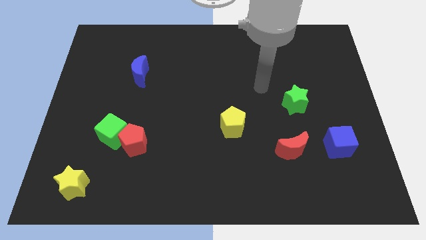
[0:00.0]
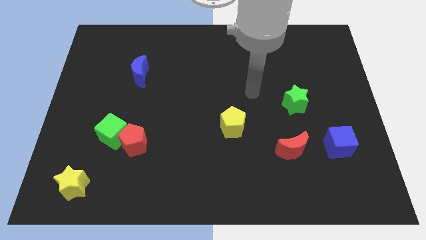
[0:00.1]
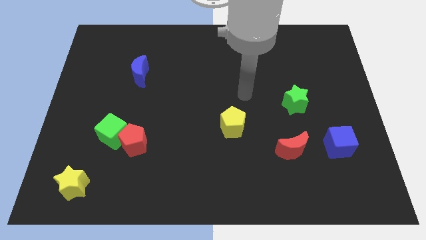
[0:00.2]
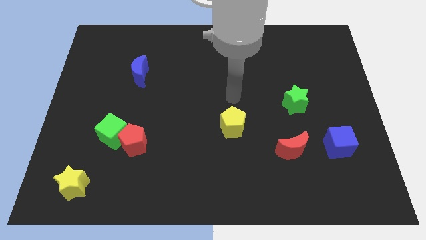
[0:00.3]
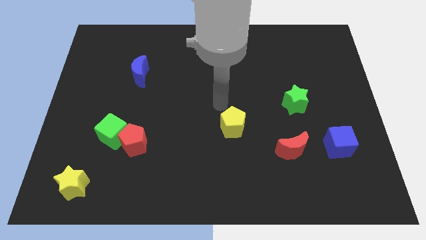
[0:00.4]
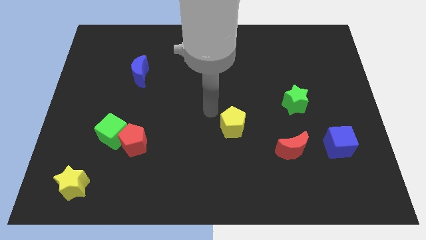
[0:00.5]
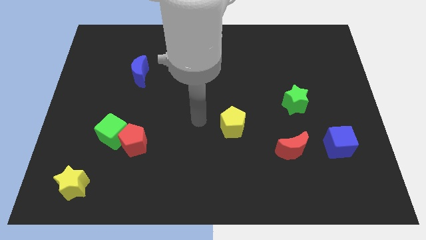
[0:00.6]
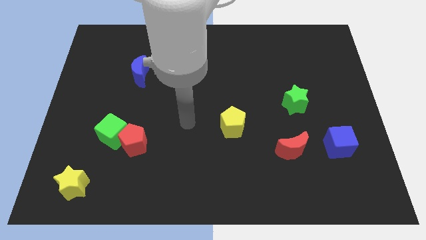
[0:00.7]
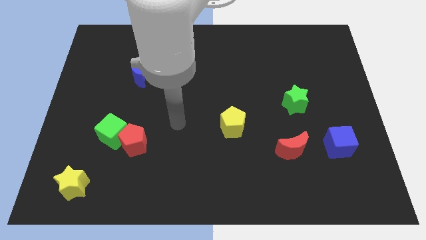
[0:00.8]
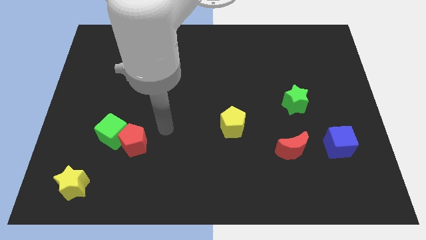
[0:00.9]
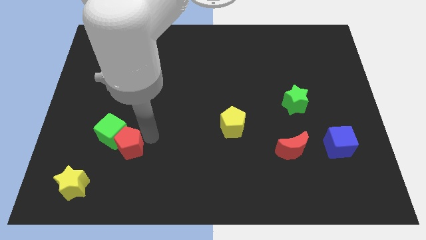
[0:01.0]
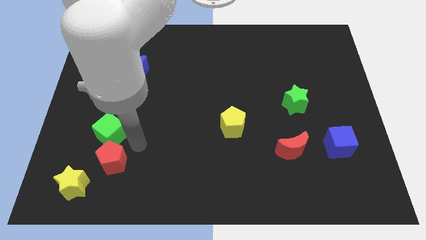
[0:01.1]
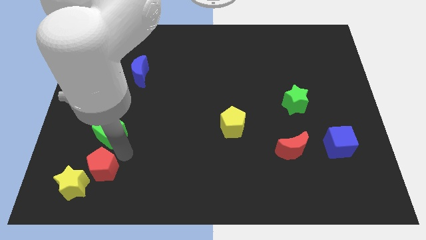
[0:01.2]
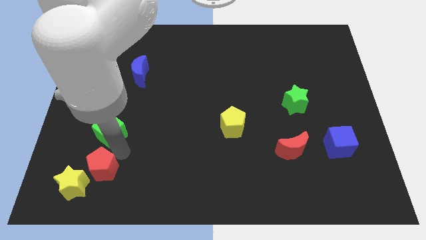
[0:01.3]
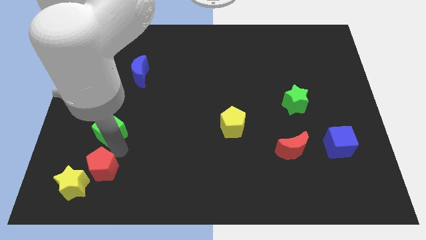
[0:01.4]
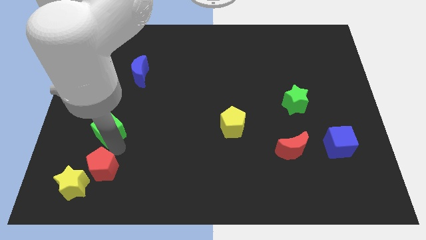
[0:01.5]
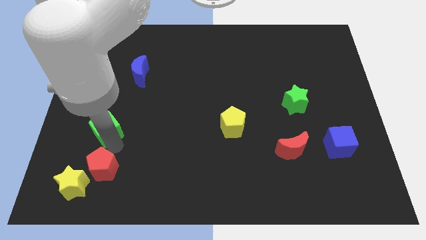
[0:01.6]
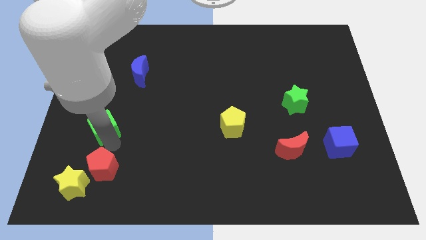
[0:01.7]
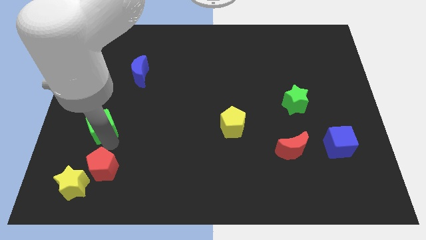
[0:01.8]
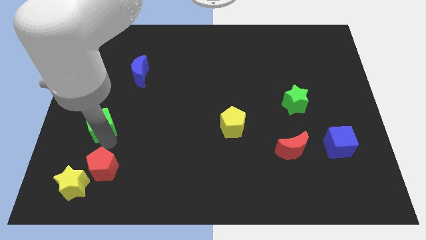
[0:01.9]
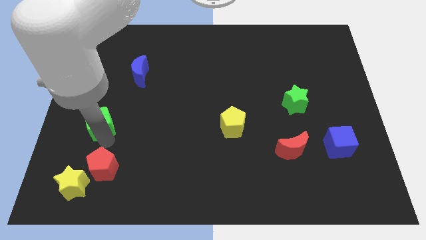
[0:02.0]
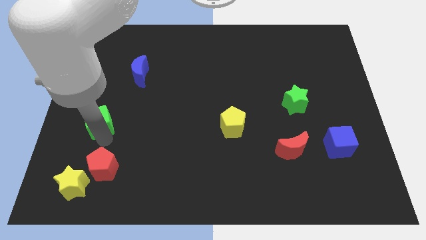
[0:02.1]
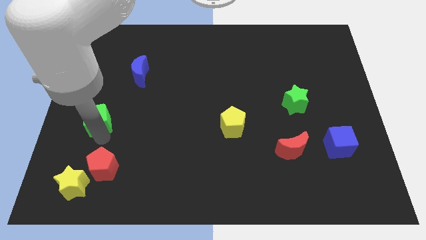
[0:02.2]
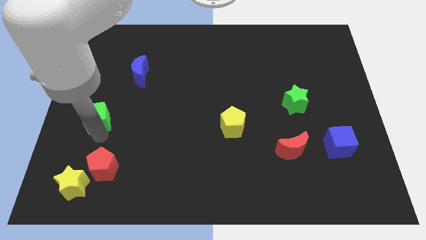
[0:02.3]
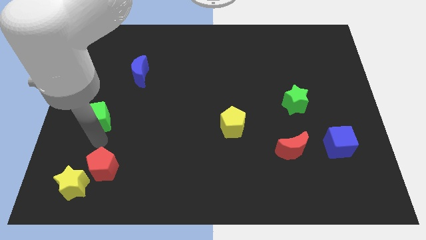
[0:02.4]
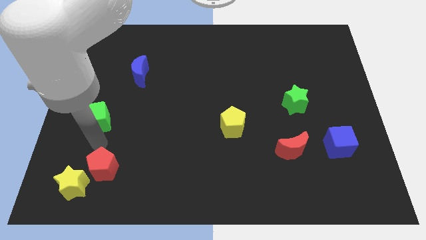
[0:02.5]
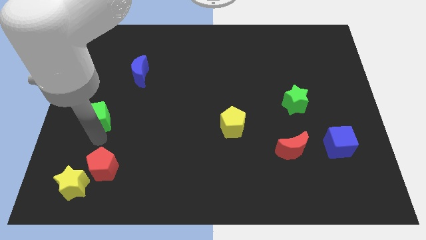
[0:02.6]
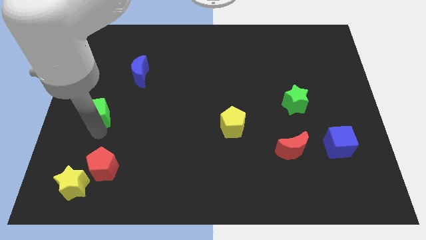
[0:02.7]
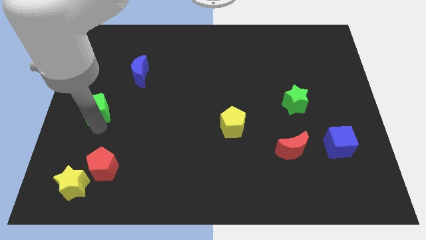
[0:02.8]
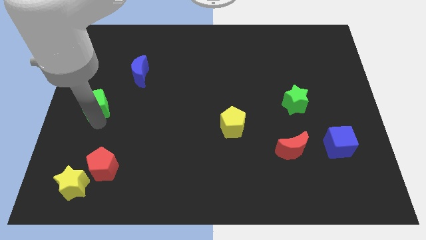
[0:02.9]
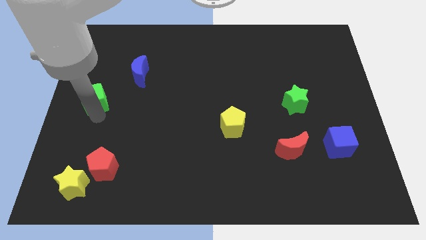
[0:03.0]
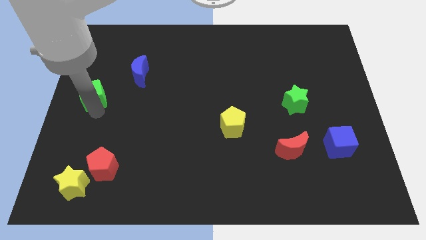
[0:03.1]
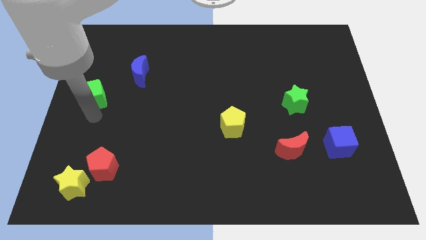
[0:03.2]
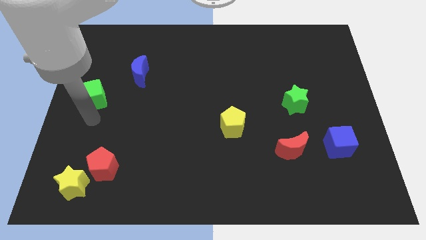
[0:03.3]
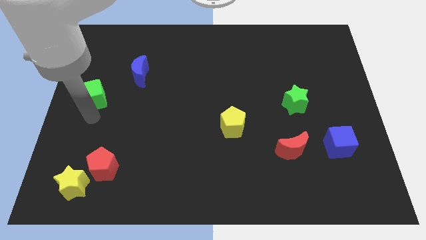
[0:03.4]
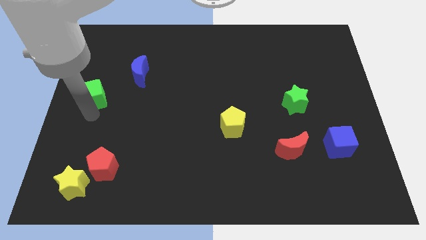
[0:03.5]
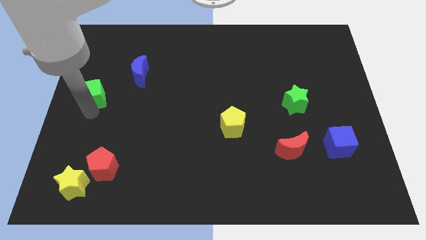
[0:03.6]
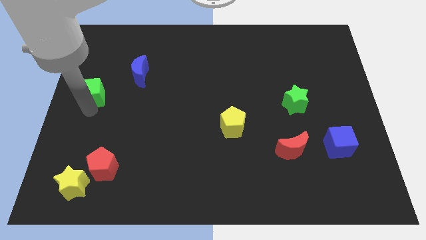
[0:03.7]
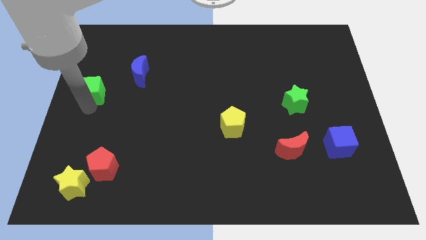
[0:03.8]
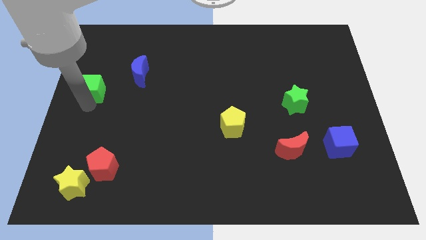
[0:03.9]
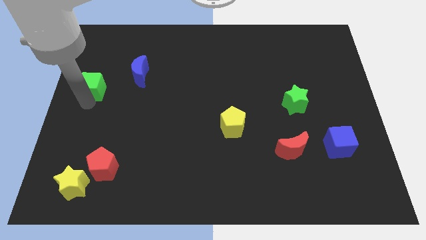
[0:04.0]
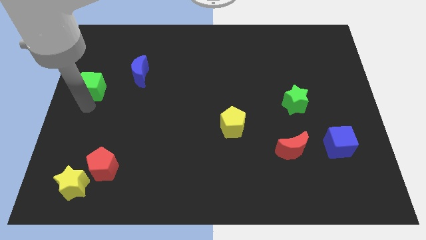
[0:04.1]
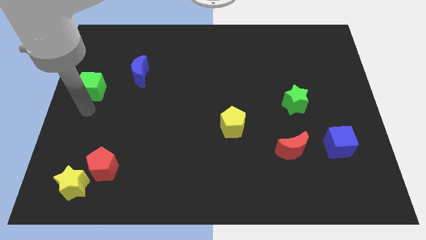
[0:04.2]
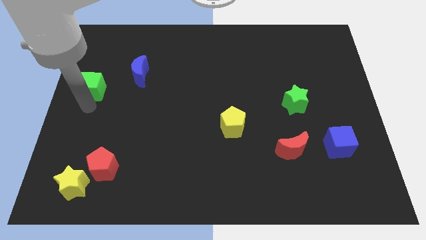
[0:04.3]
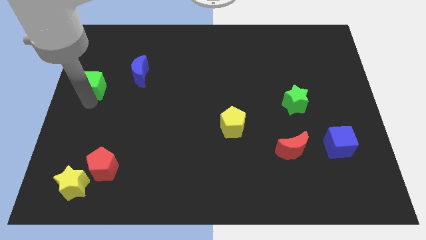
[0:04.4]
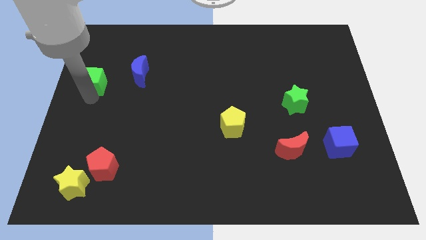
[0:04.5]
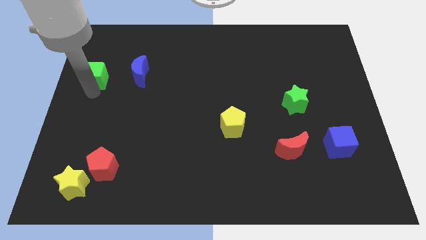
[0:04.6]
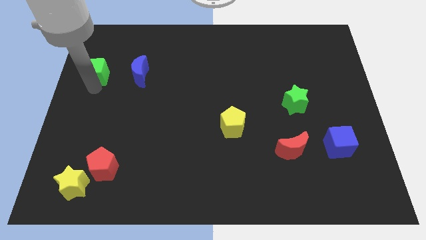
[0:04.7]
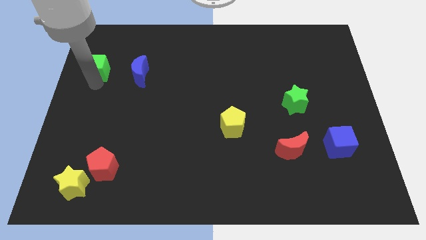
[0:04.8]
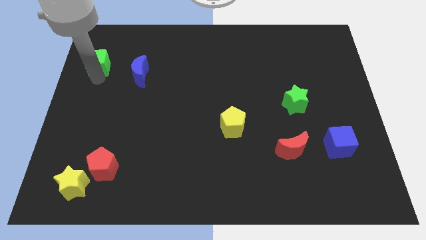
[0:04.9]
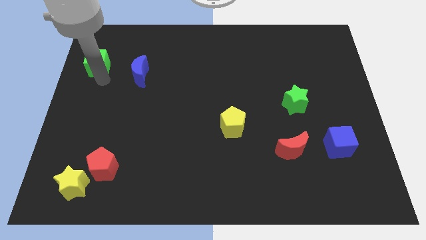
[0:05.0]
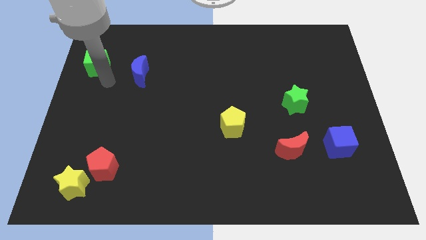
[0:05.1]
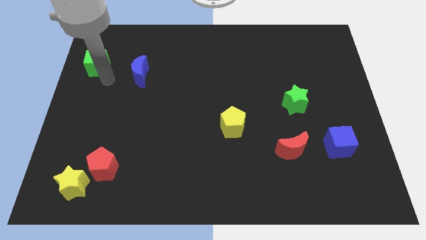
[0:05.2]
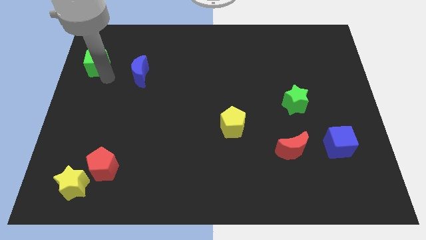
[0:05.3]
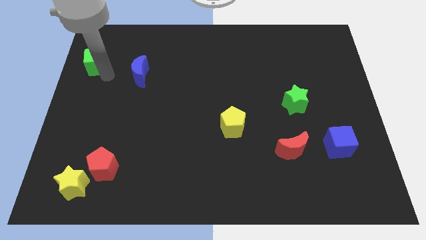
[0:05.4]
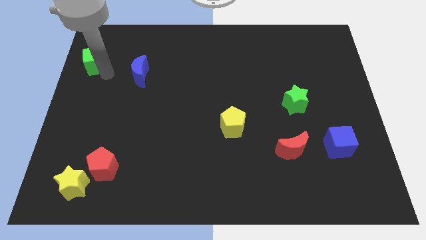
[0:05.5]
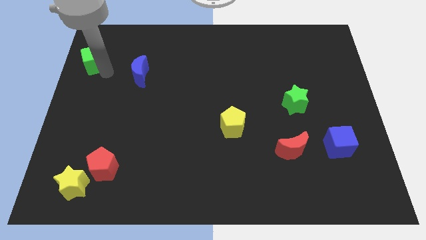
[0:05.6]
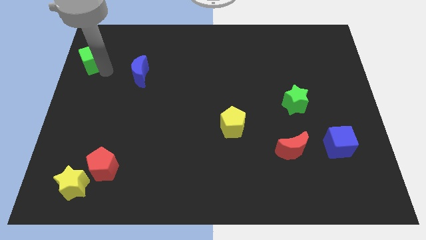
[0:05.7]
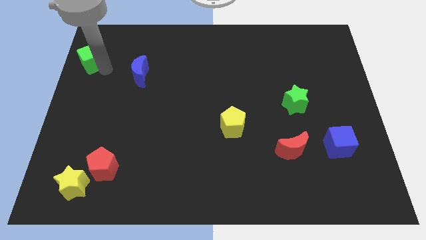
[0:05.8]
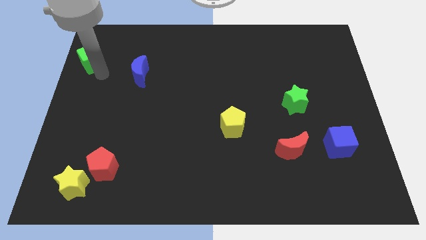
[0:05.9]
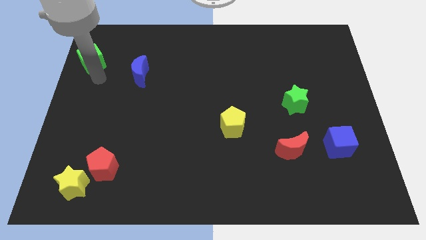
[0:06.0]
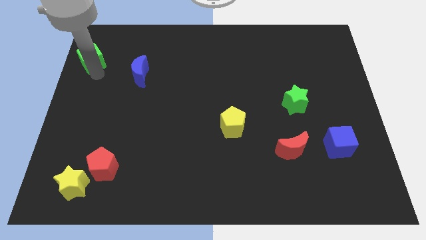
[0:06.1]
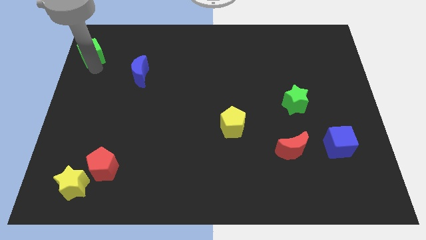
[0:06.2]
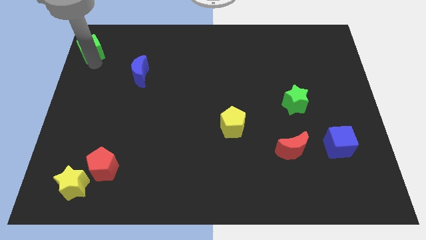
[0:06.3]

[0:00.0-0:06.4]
push the green cube to the upper left corner

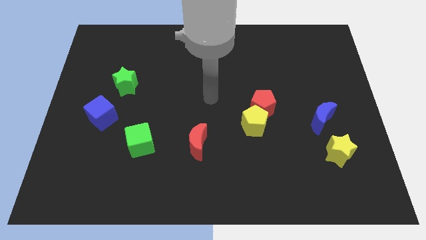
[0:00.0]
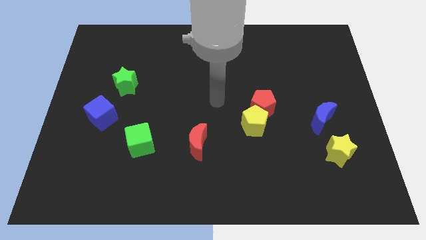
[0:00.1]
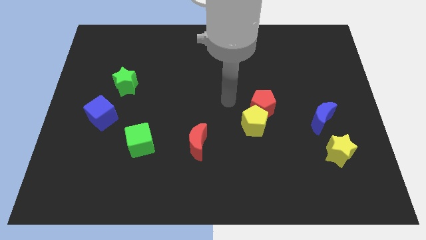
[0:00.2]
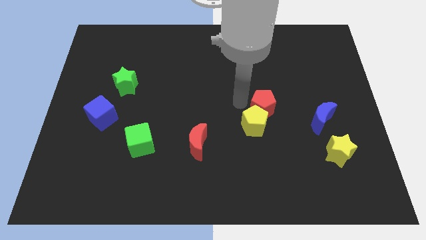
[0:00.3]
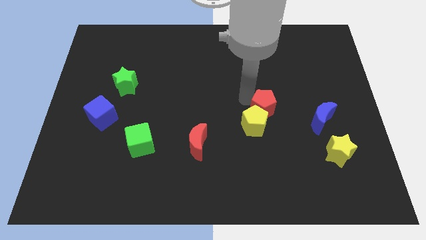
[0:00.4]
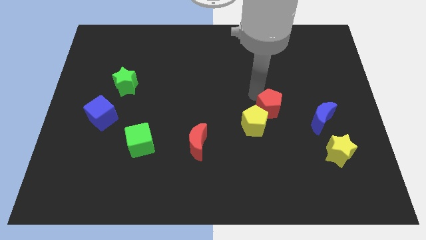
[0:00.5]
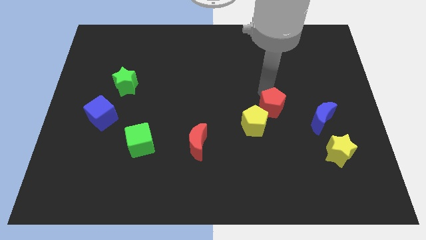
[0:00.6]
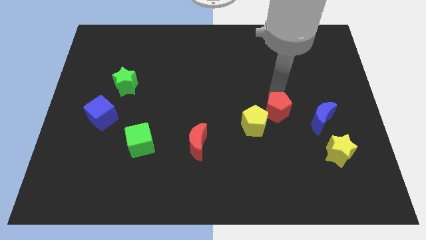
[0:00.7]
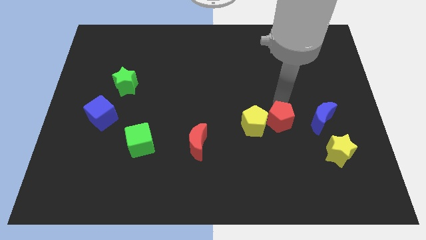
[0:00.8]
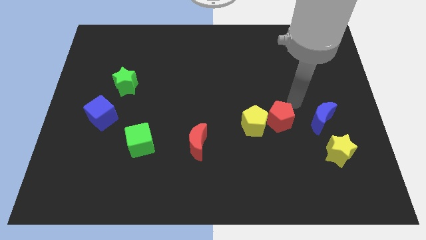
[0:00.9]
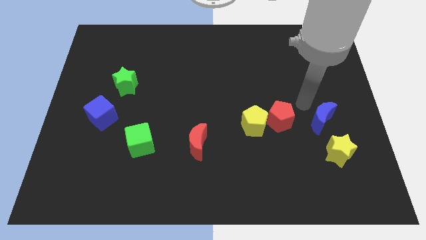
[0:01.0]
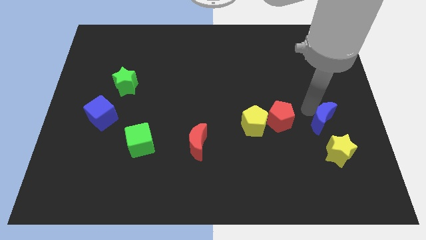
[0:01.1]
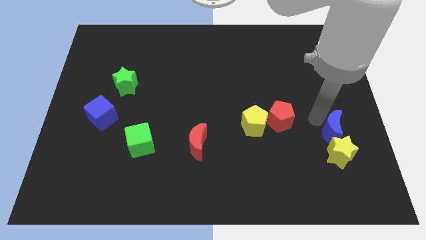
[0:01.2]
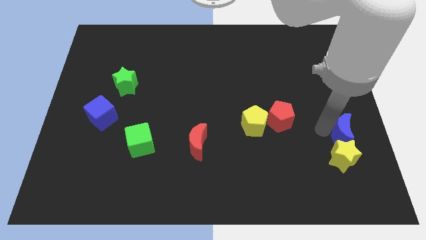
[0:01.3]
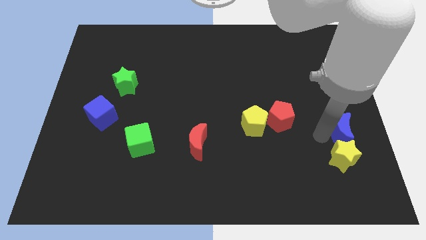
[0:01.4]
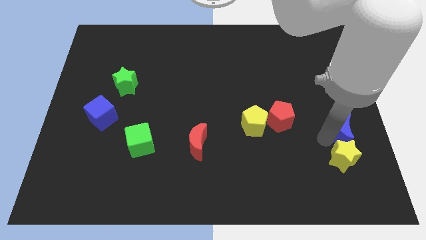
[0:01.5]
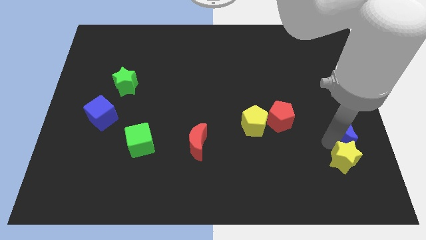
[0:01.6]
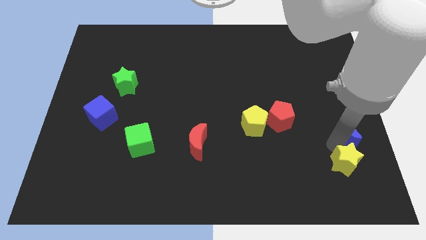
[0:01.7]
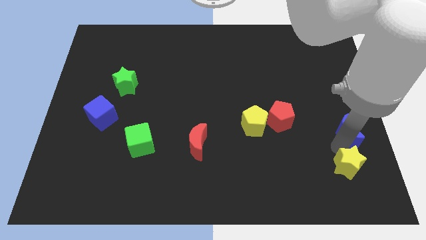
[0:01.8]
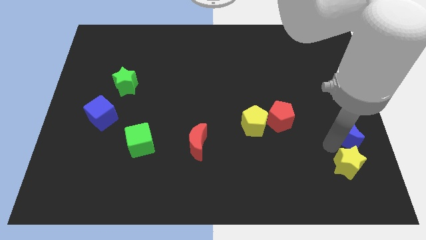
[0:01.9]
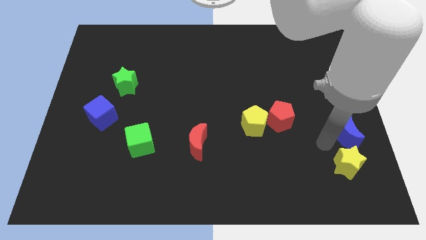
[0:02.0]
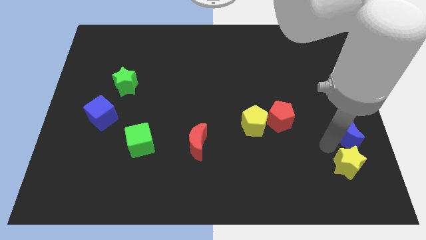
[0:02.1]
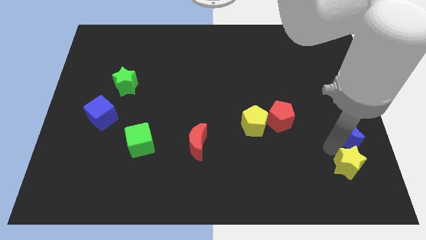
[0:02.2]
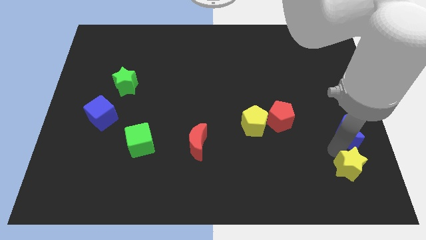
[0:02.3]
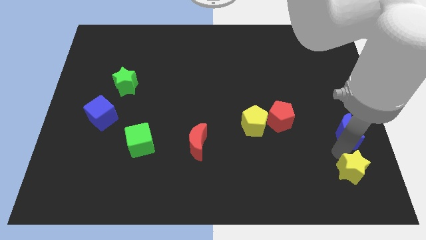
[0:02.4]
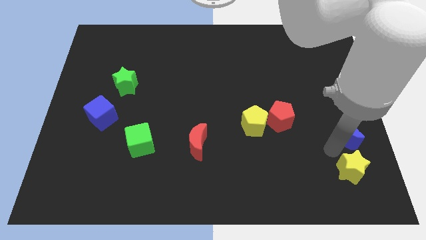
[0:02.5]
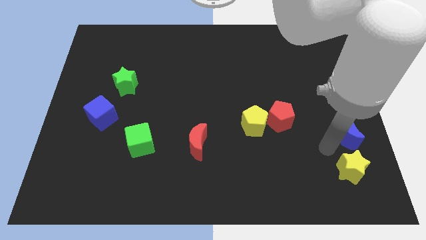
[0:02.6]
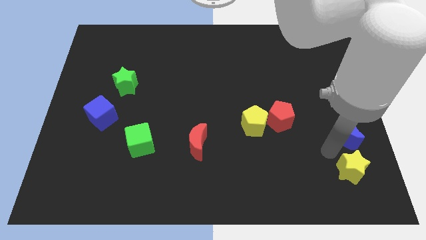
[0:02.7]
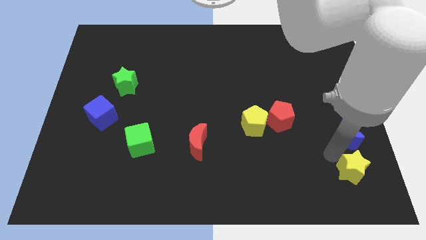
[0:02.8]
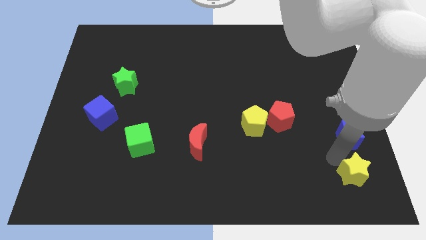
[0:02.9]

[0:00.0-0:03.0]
slide the yellow star to the bottom right corner
